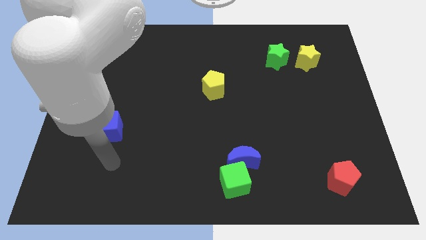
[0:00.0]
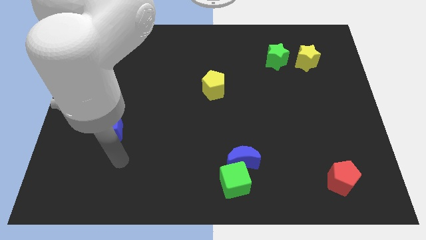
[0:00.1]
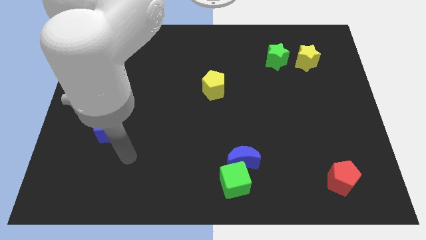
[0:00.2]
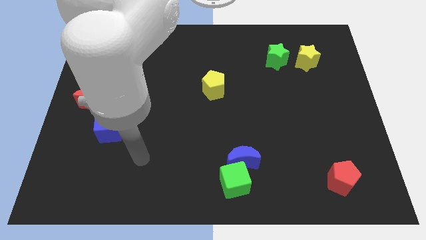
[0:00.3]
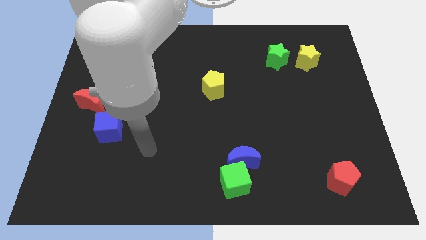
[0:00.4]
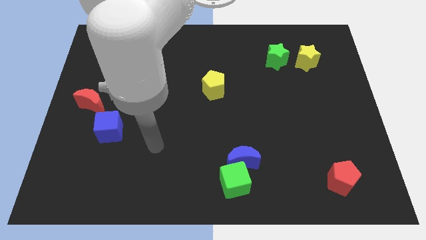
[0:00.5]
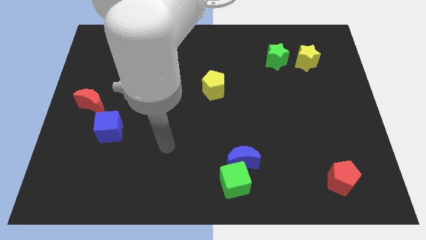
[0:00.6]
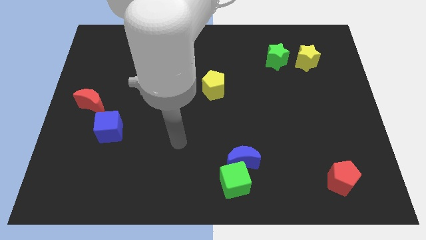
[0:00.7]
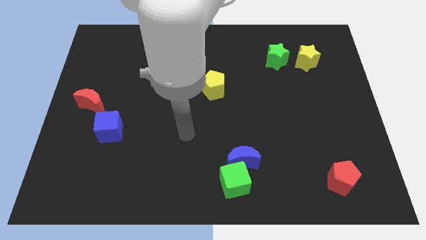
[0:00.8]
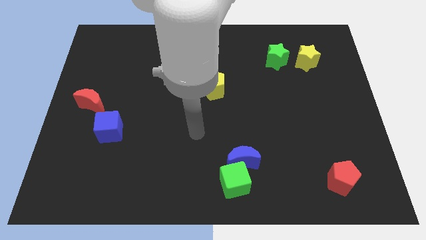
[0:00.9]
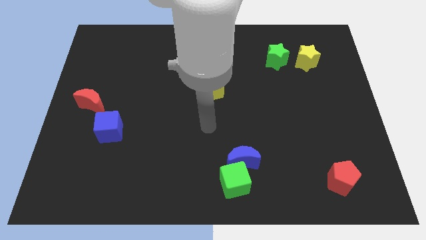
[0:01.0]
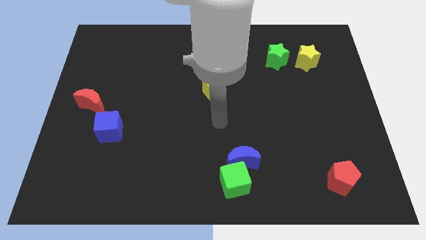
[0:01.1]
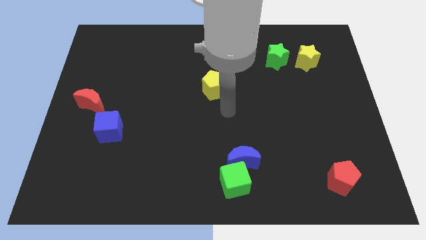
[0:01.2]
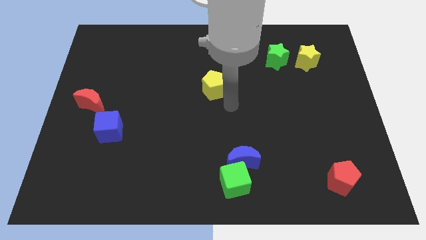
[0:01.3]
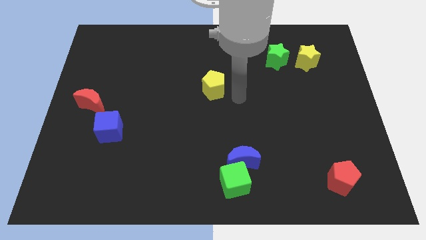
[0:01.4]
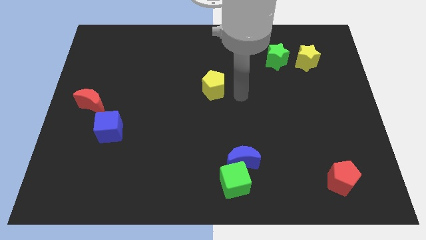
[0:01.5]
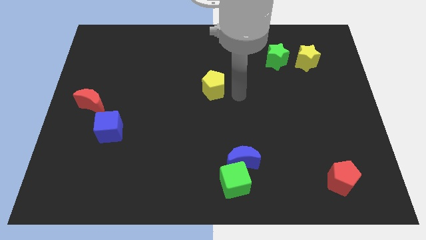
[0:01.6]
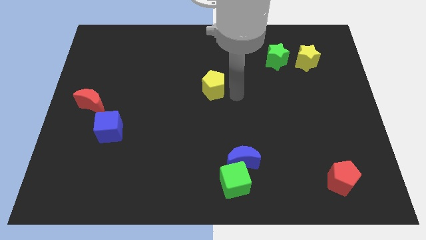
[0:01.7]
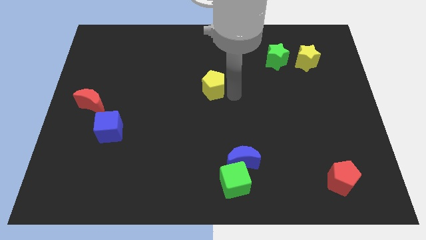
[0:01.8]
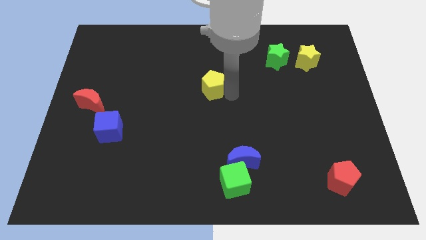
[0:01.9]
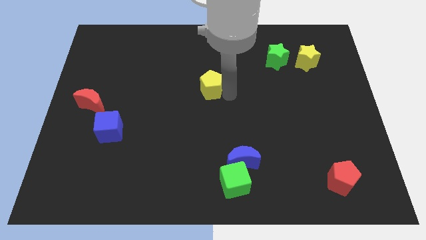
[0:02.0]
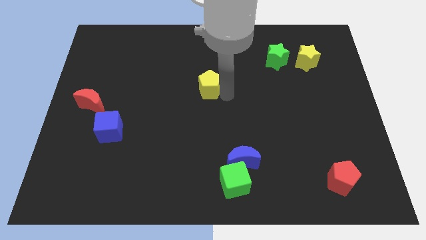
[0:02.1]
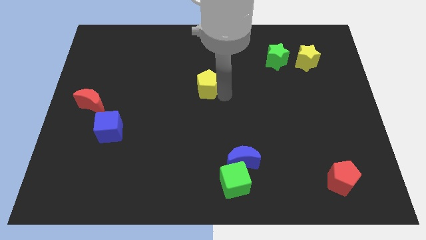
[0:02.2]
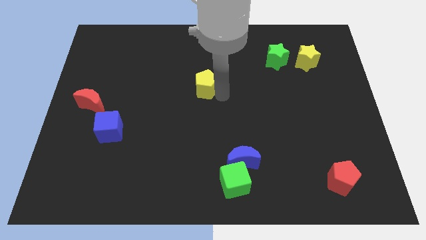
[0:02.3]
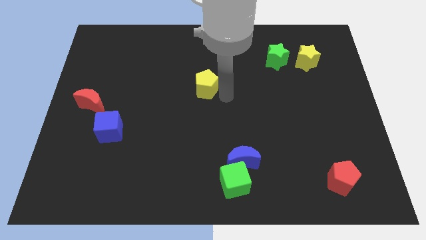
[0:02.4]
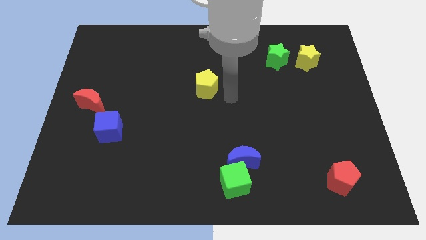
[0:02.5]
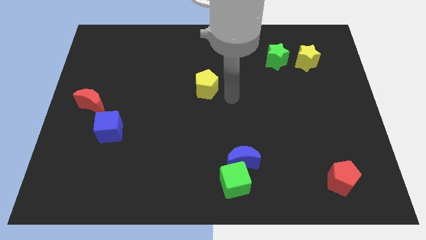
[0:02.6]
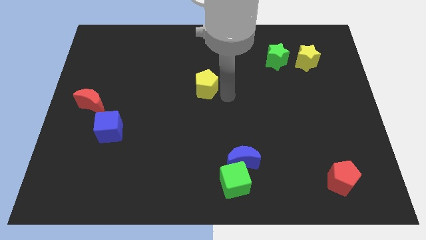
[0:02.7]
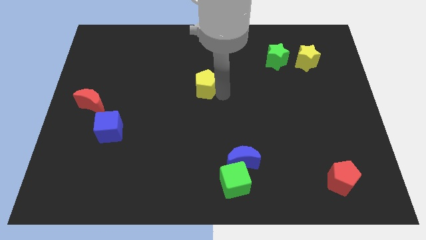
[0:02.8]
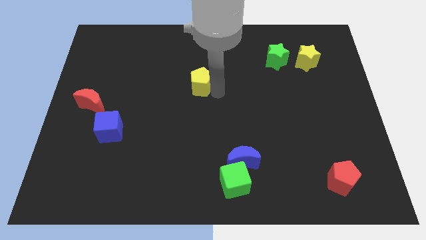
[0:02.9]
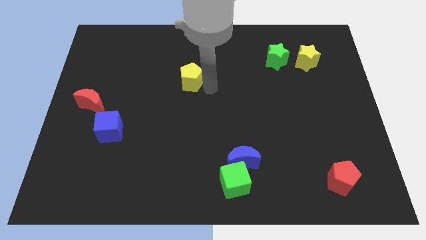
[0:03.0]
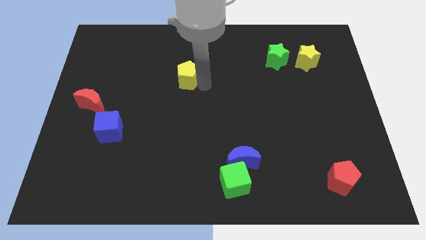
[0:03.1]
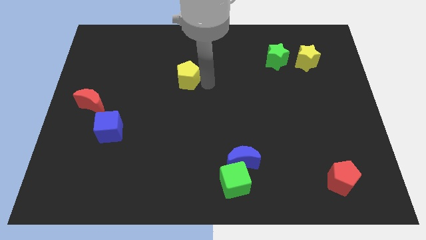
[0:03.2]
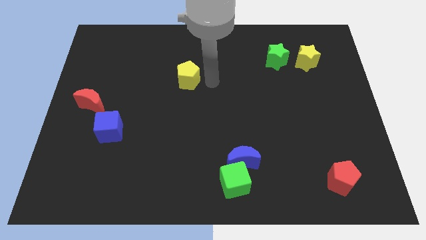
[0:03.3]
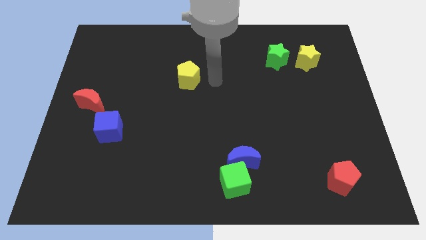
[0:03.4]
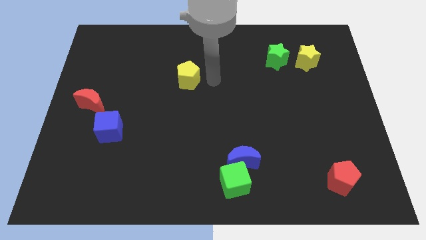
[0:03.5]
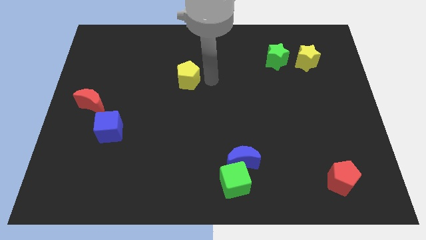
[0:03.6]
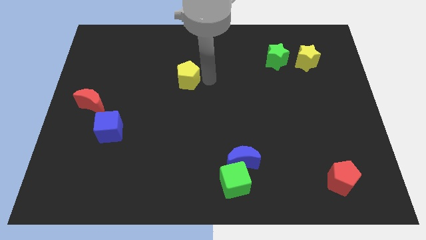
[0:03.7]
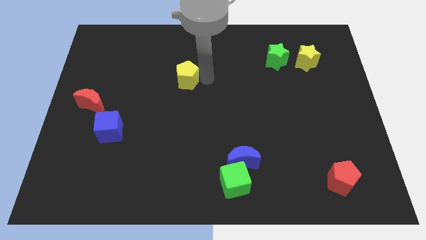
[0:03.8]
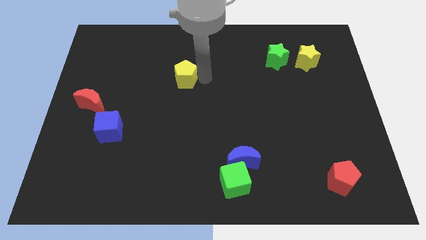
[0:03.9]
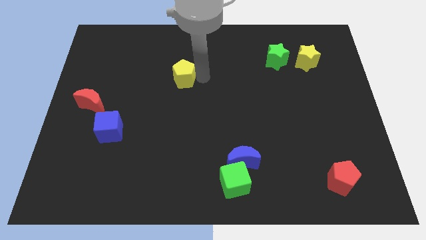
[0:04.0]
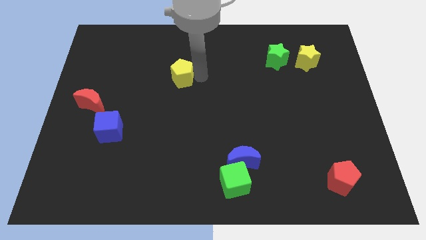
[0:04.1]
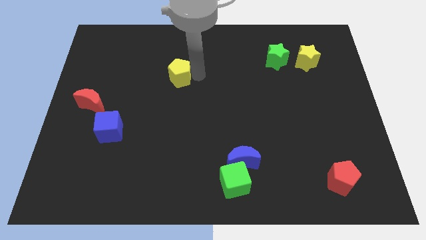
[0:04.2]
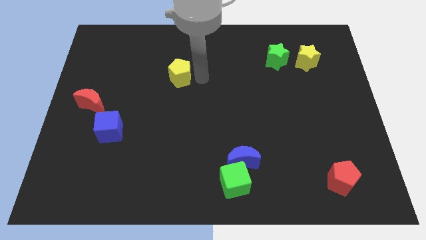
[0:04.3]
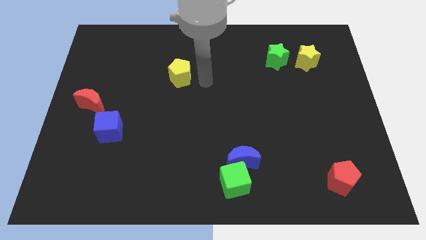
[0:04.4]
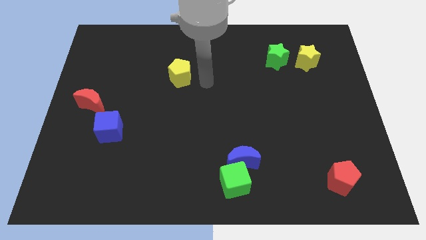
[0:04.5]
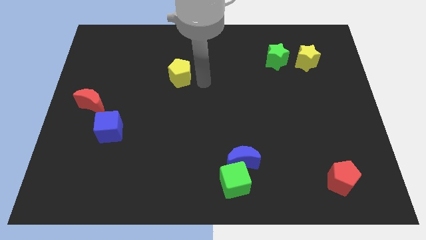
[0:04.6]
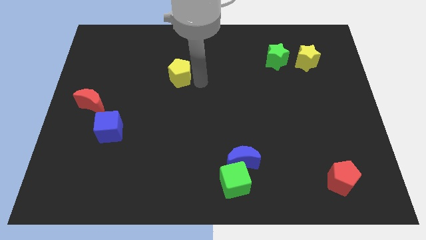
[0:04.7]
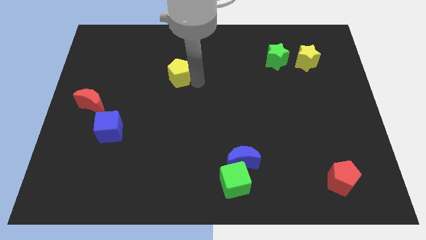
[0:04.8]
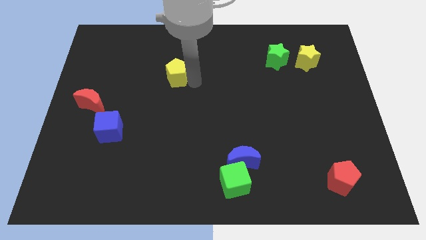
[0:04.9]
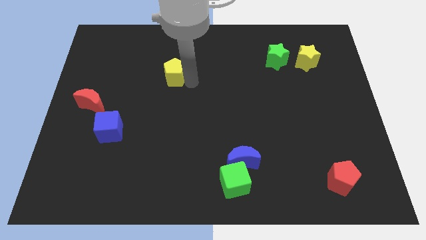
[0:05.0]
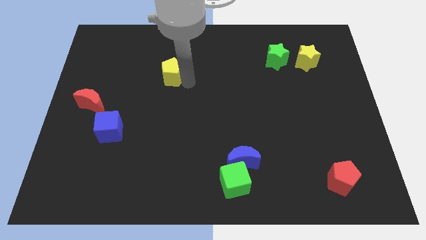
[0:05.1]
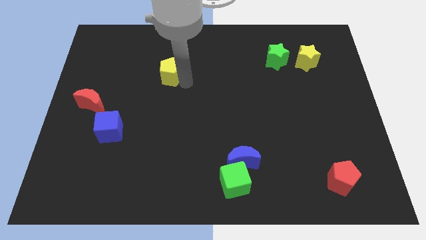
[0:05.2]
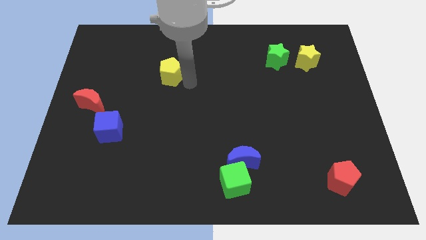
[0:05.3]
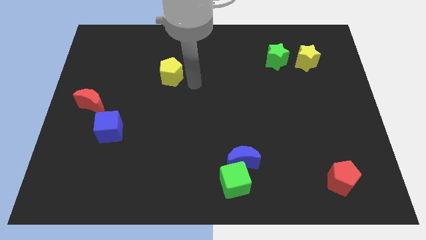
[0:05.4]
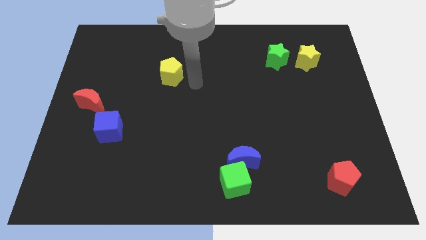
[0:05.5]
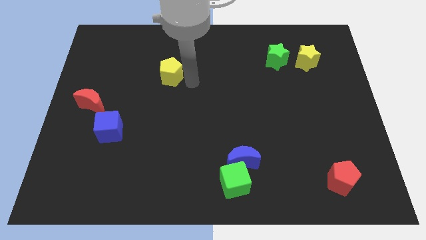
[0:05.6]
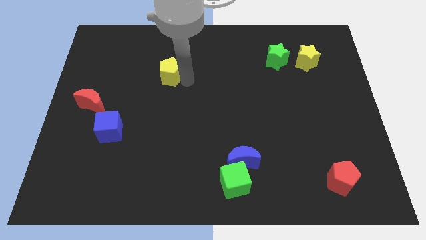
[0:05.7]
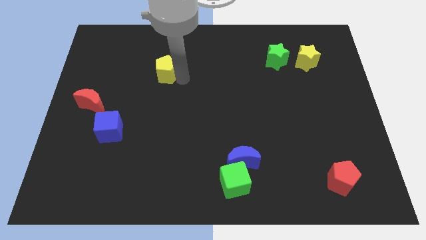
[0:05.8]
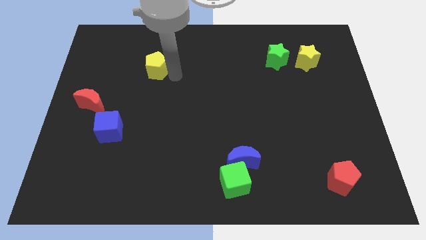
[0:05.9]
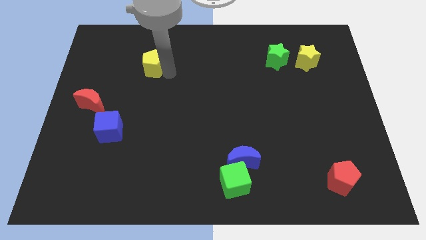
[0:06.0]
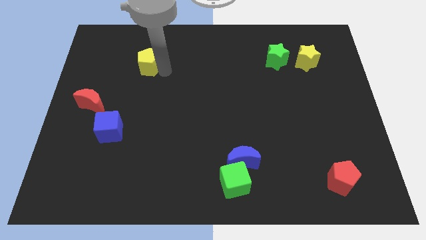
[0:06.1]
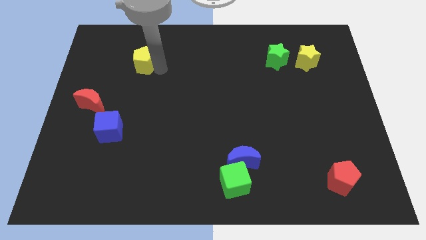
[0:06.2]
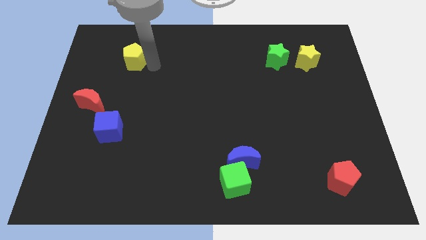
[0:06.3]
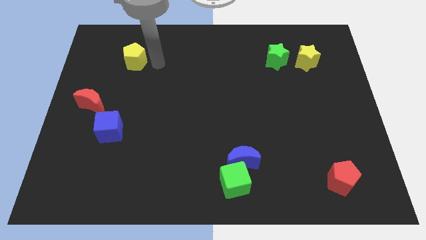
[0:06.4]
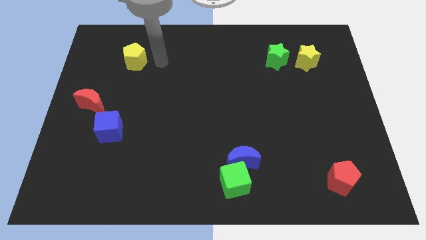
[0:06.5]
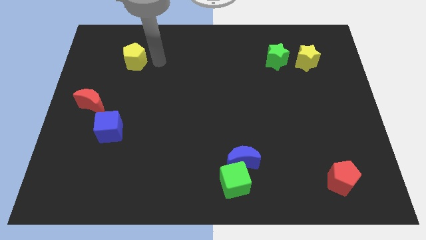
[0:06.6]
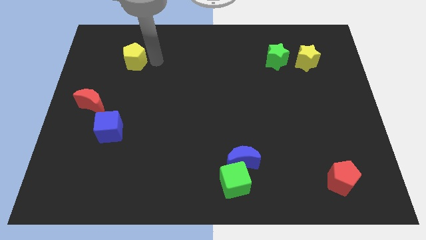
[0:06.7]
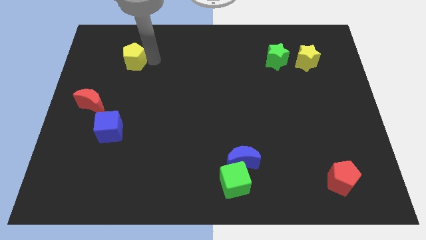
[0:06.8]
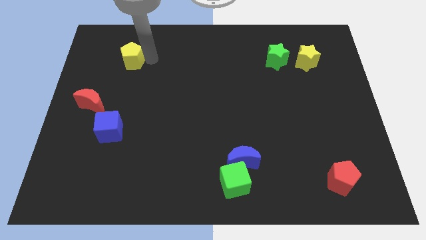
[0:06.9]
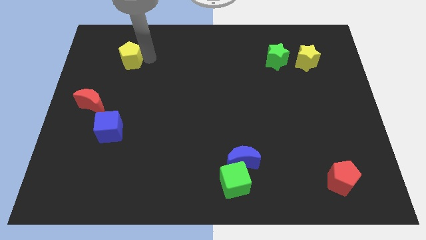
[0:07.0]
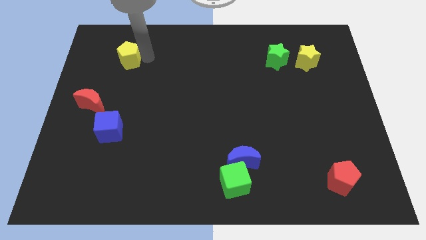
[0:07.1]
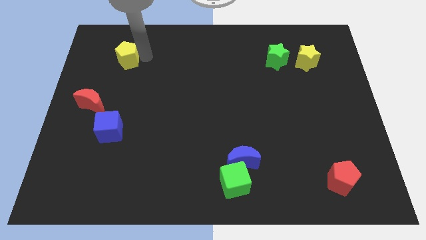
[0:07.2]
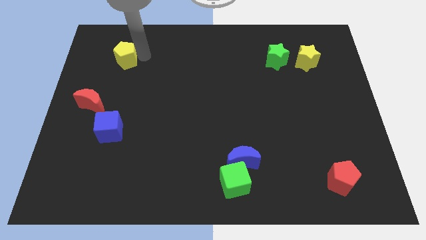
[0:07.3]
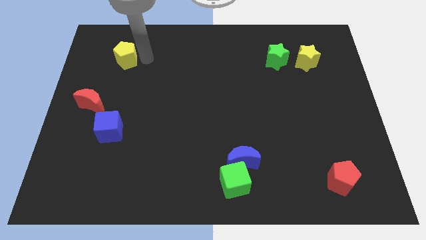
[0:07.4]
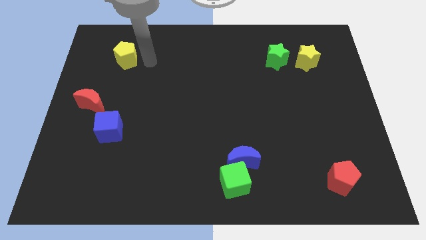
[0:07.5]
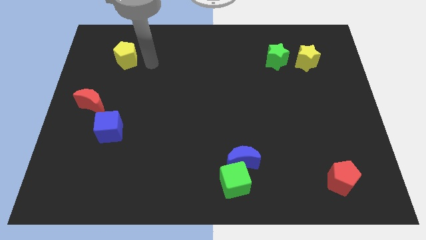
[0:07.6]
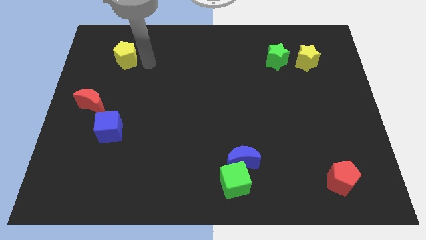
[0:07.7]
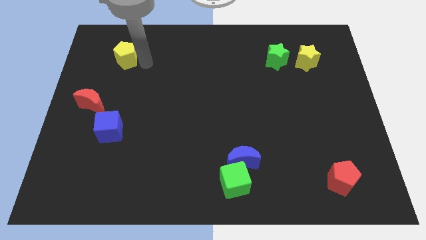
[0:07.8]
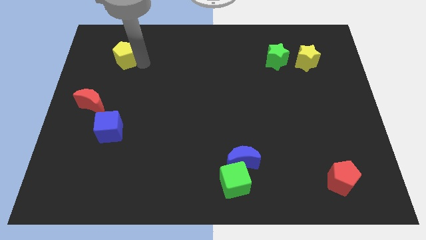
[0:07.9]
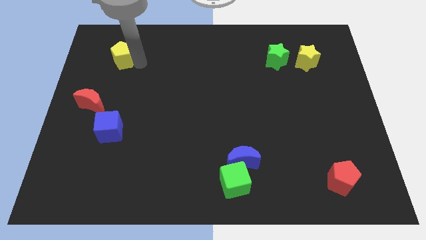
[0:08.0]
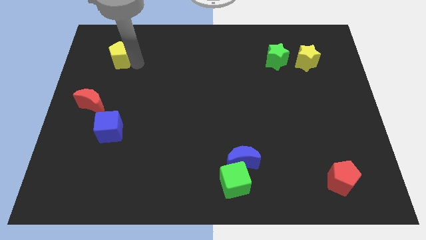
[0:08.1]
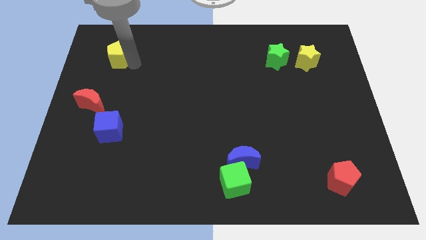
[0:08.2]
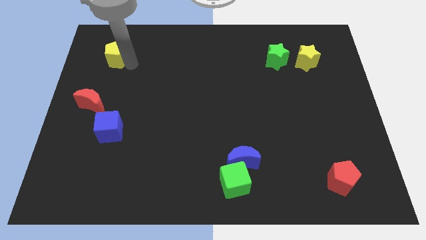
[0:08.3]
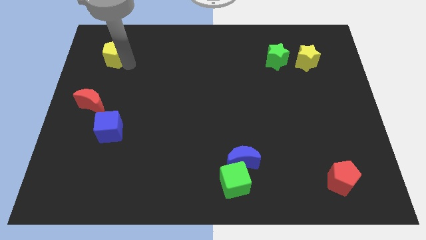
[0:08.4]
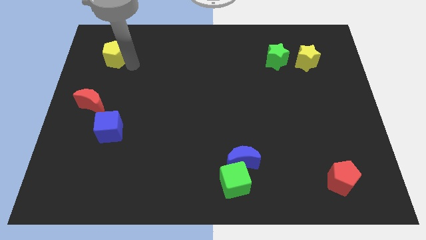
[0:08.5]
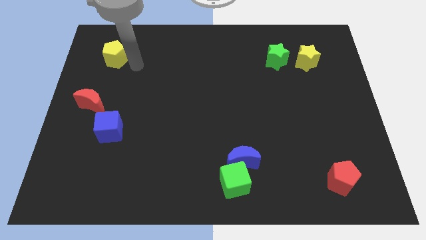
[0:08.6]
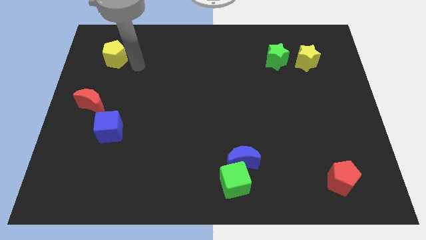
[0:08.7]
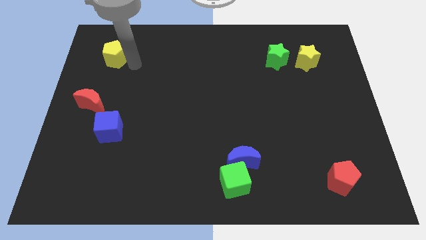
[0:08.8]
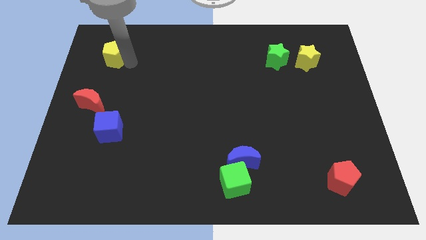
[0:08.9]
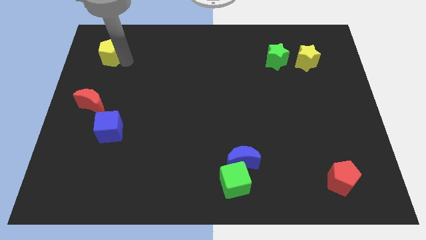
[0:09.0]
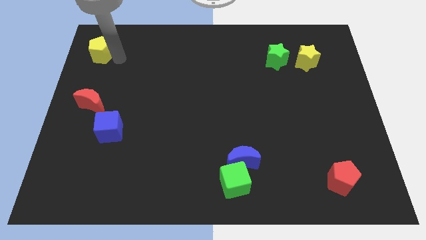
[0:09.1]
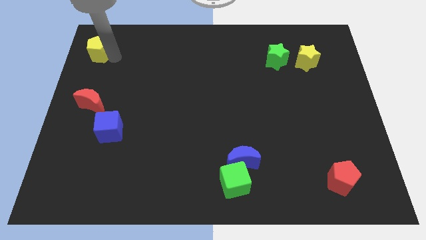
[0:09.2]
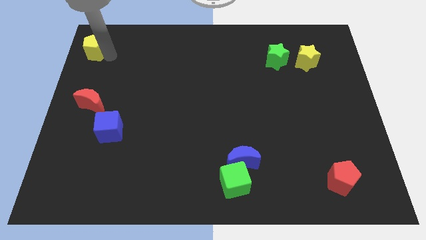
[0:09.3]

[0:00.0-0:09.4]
move the yellow pentagon to the top left corner
